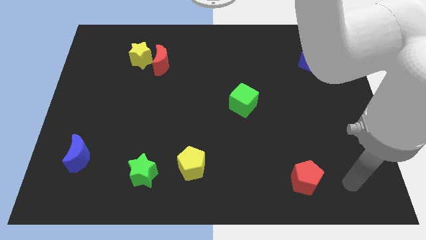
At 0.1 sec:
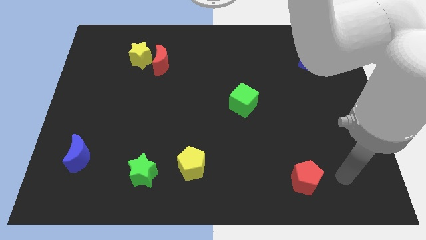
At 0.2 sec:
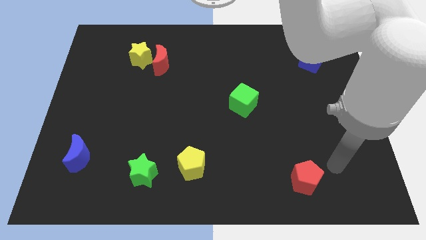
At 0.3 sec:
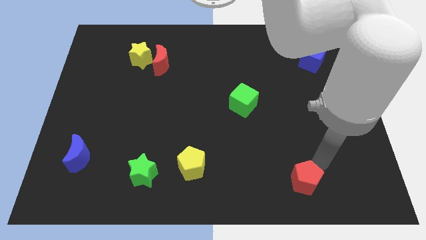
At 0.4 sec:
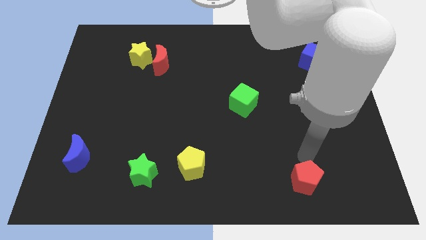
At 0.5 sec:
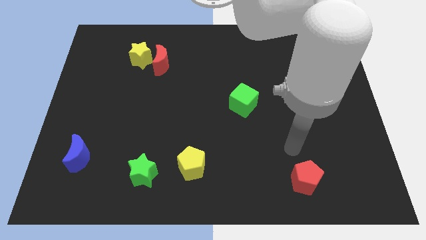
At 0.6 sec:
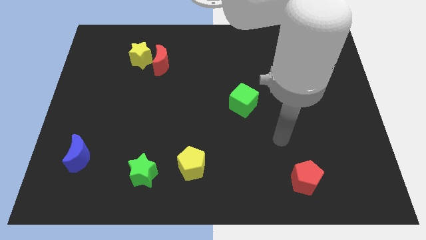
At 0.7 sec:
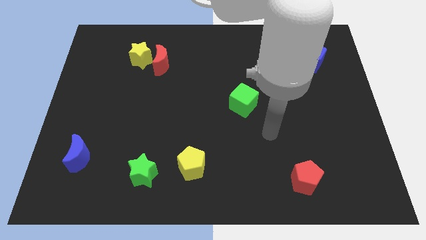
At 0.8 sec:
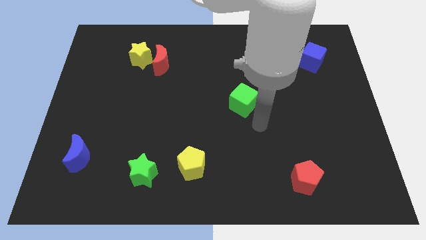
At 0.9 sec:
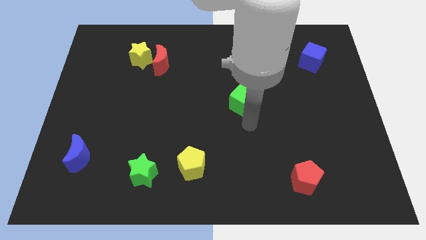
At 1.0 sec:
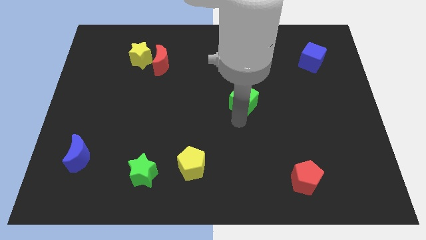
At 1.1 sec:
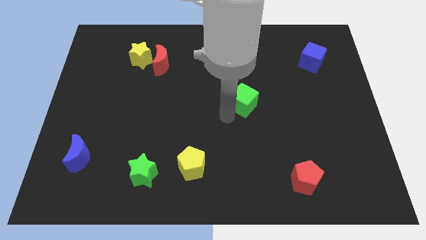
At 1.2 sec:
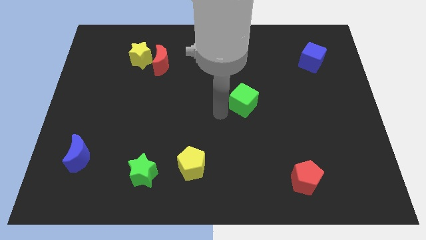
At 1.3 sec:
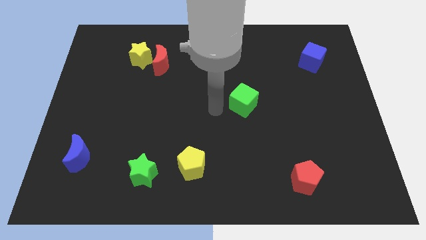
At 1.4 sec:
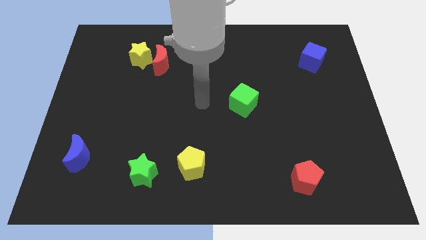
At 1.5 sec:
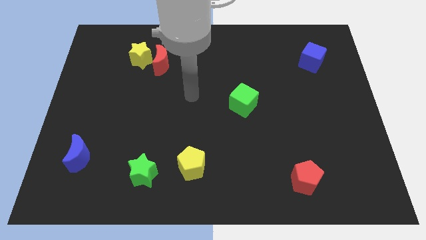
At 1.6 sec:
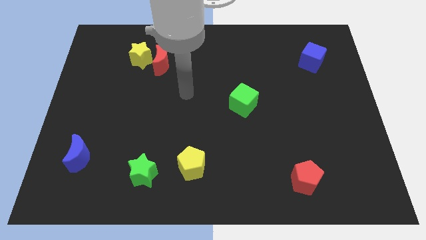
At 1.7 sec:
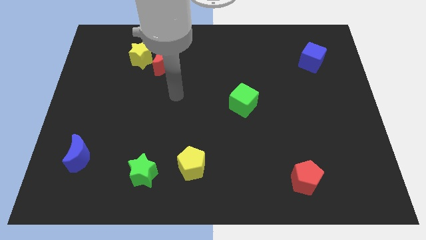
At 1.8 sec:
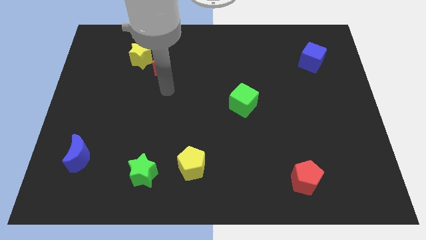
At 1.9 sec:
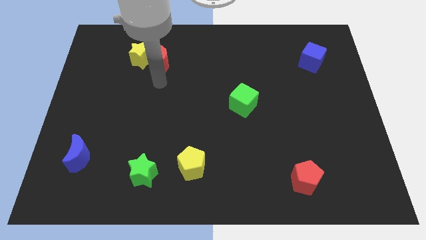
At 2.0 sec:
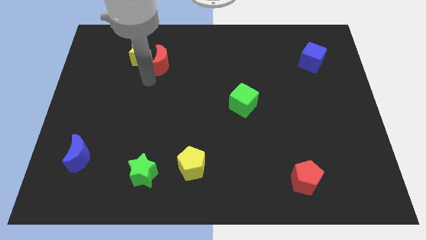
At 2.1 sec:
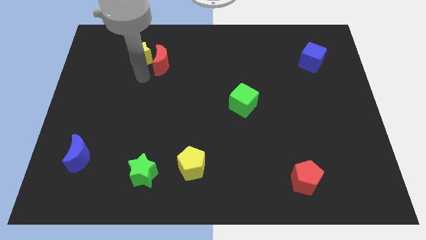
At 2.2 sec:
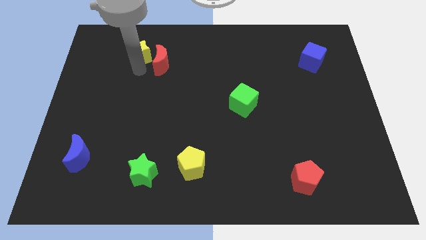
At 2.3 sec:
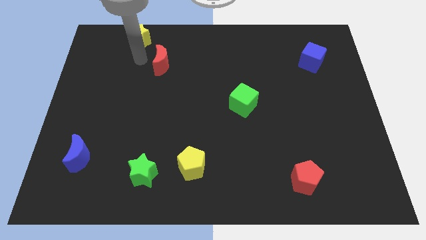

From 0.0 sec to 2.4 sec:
separate the red moon from the yellow star

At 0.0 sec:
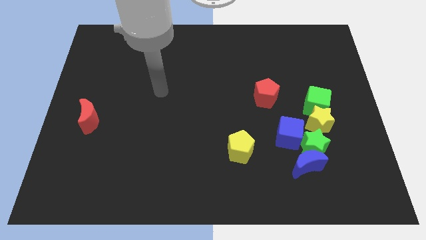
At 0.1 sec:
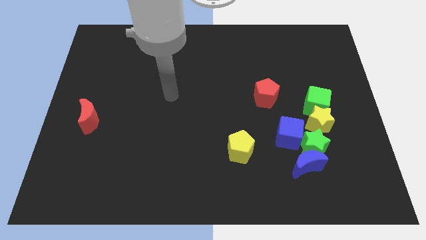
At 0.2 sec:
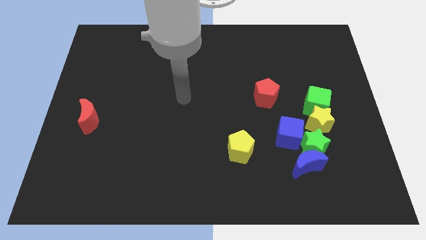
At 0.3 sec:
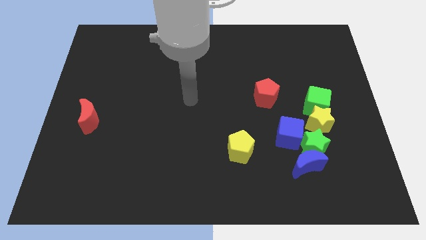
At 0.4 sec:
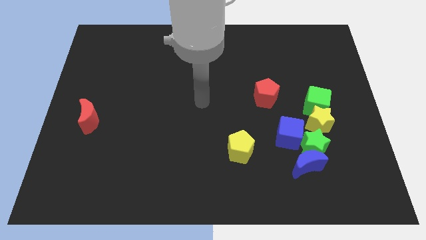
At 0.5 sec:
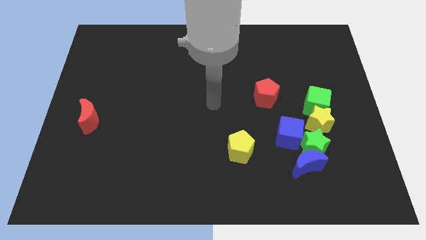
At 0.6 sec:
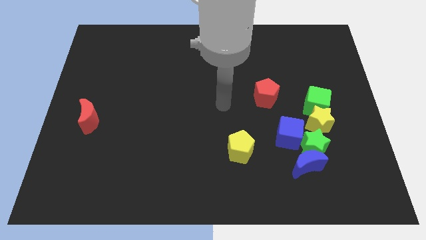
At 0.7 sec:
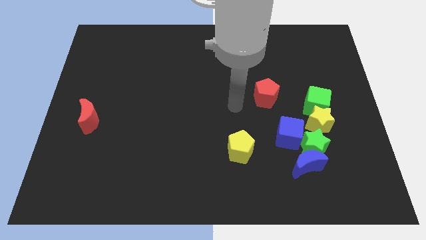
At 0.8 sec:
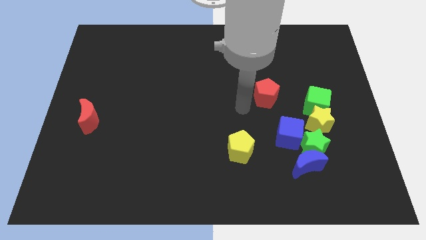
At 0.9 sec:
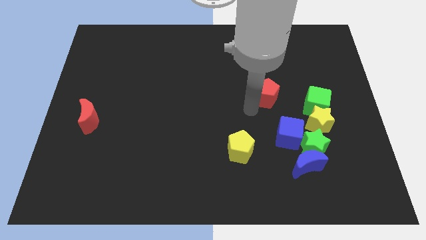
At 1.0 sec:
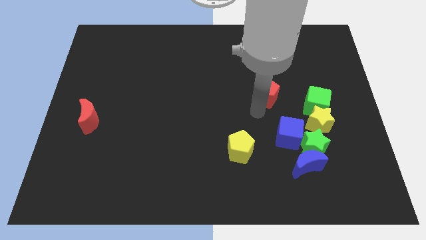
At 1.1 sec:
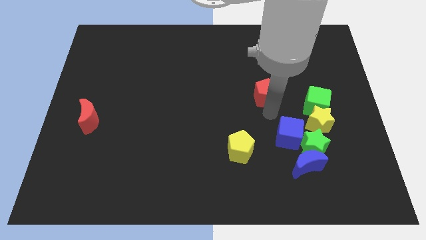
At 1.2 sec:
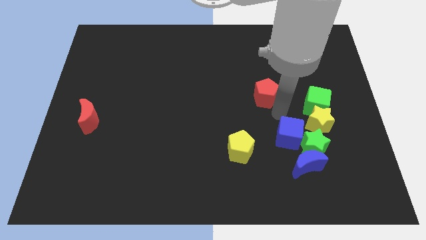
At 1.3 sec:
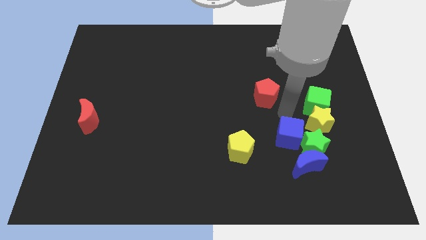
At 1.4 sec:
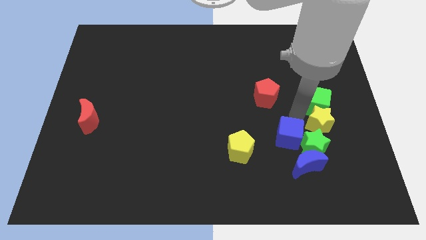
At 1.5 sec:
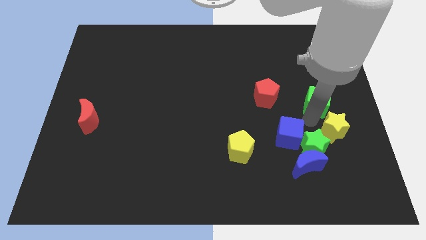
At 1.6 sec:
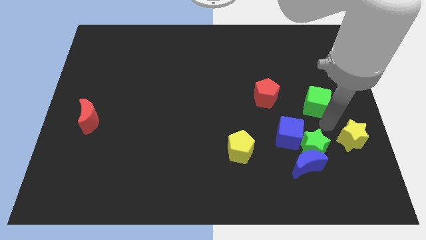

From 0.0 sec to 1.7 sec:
separate the green cube from the yellow star

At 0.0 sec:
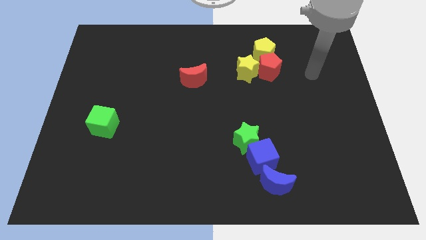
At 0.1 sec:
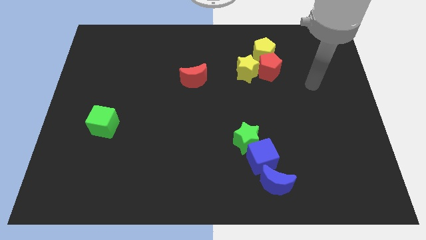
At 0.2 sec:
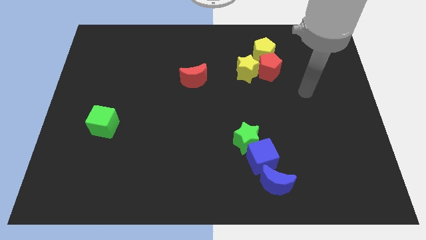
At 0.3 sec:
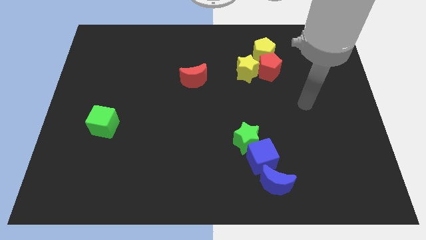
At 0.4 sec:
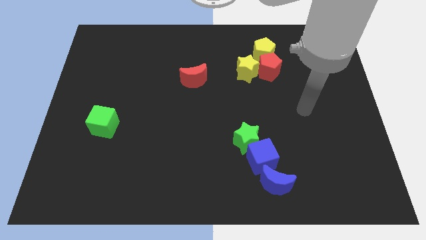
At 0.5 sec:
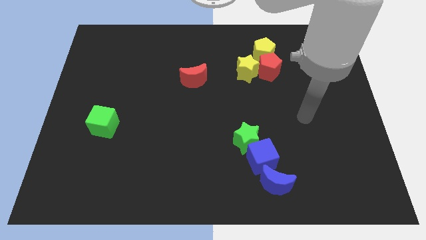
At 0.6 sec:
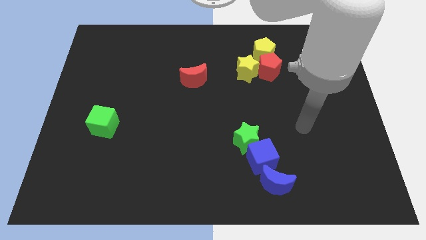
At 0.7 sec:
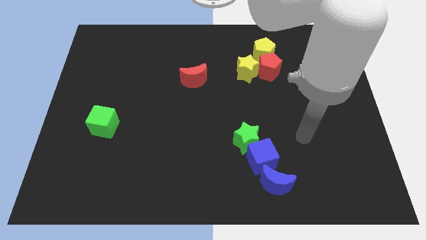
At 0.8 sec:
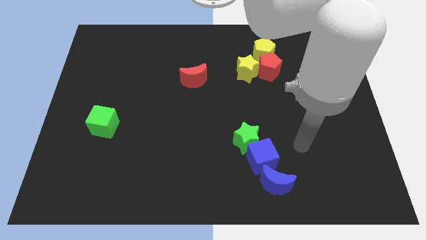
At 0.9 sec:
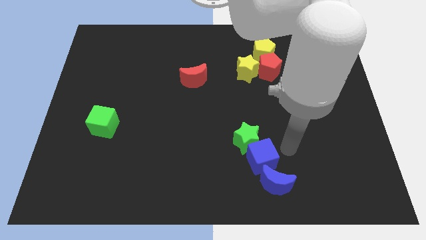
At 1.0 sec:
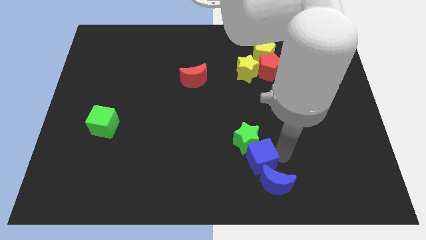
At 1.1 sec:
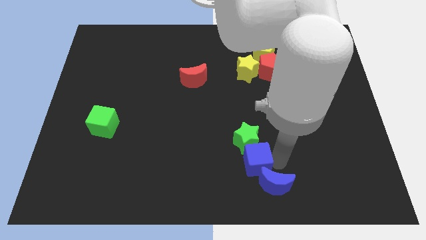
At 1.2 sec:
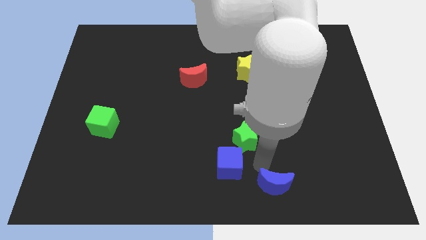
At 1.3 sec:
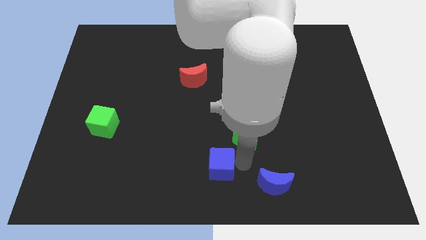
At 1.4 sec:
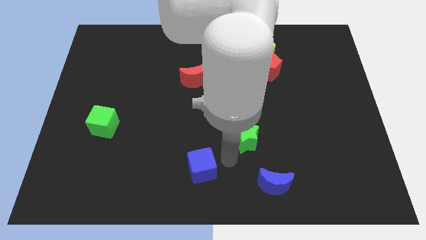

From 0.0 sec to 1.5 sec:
move the green star away from the blue cube

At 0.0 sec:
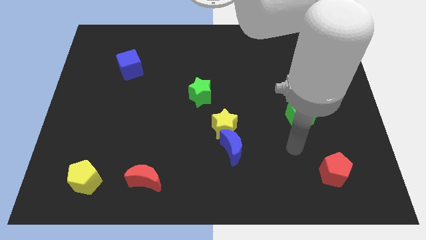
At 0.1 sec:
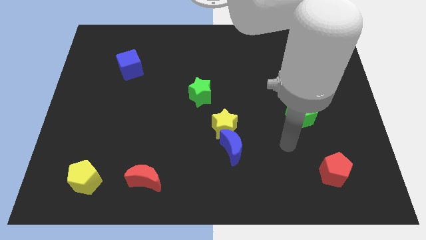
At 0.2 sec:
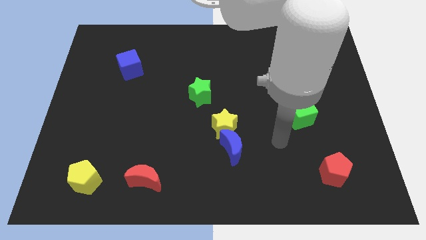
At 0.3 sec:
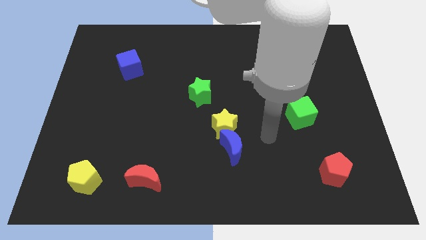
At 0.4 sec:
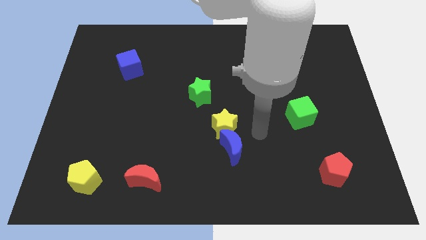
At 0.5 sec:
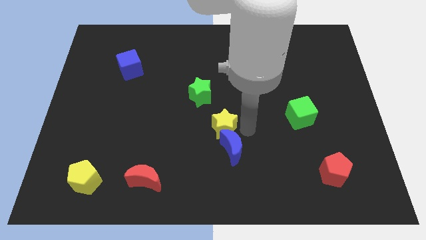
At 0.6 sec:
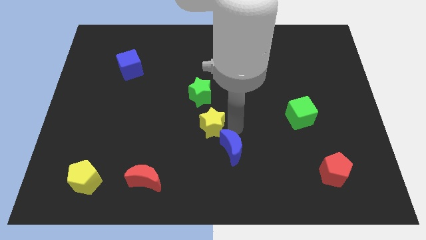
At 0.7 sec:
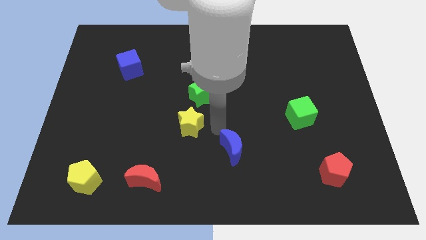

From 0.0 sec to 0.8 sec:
pull the blue moon apart from the yellow star

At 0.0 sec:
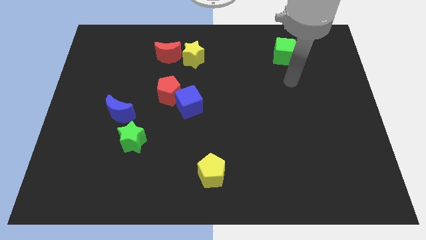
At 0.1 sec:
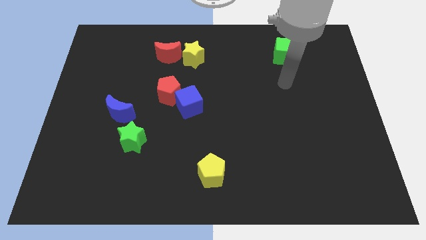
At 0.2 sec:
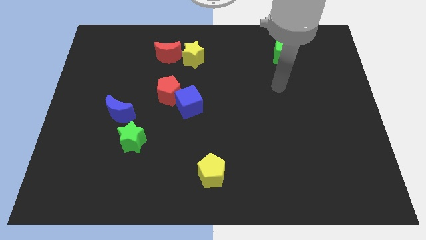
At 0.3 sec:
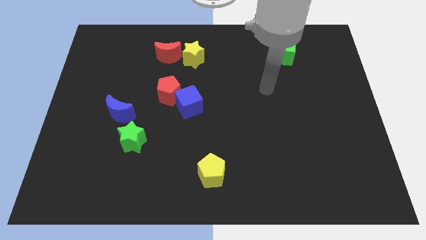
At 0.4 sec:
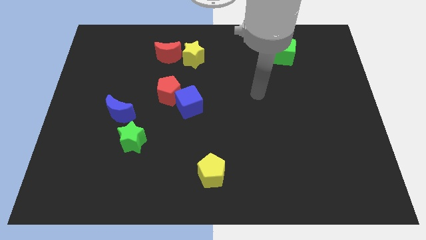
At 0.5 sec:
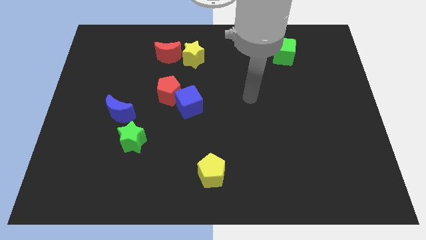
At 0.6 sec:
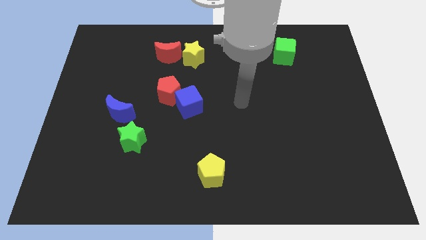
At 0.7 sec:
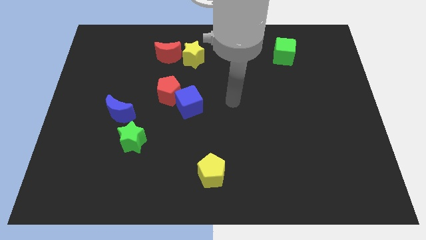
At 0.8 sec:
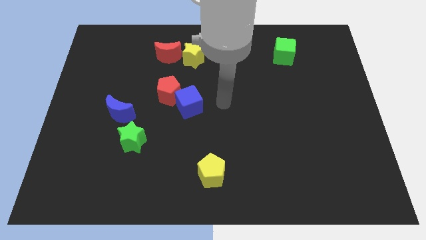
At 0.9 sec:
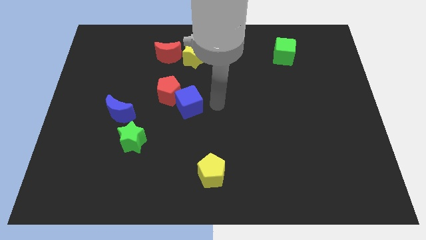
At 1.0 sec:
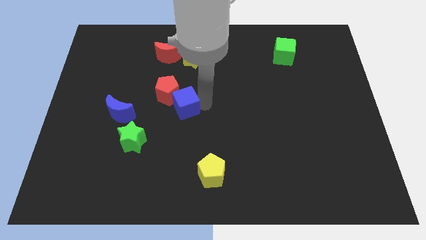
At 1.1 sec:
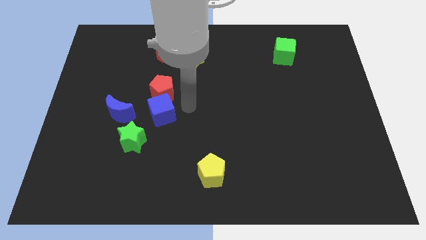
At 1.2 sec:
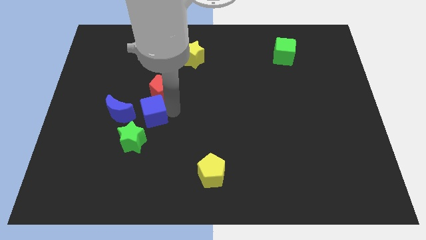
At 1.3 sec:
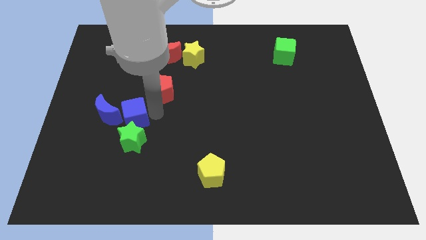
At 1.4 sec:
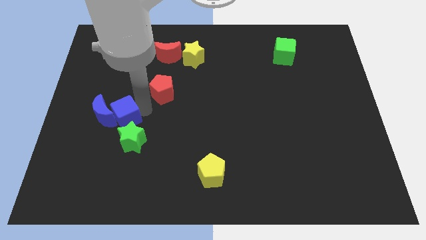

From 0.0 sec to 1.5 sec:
separate the red pentagon from the blue cube

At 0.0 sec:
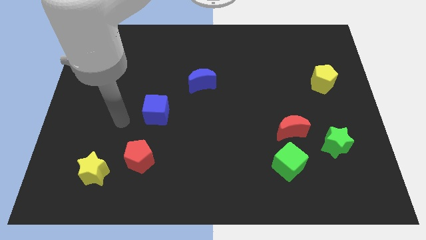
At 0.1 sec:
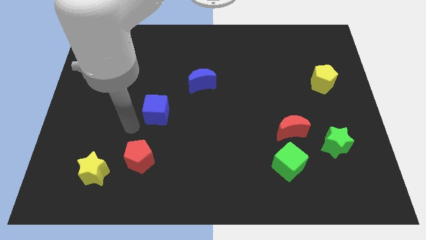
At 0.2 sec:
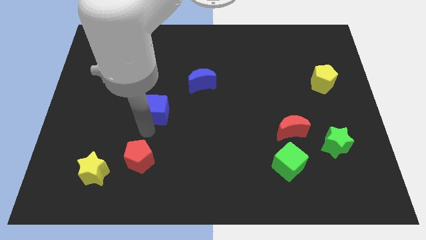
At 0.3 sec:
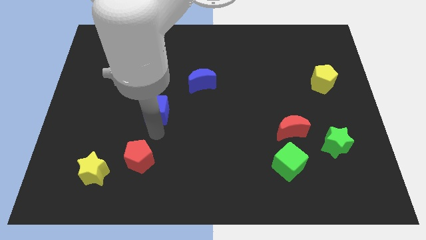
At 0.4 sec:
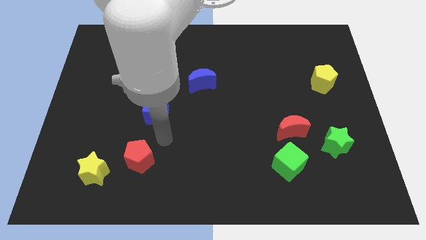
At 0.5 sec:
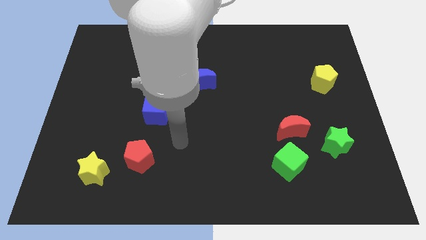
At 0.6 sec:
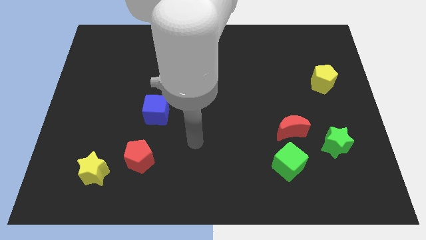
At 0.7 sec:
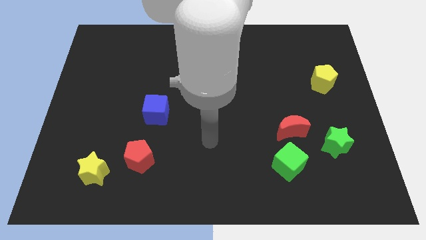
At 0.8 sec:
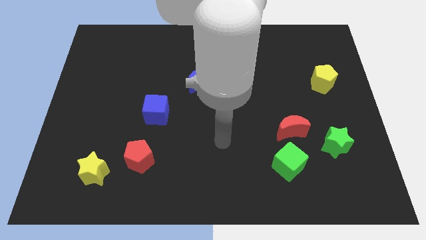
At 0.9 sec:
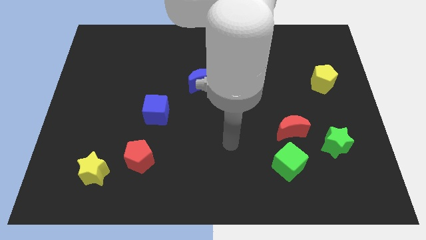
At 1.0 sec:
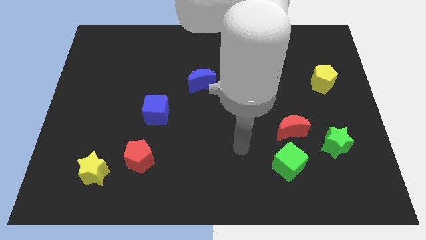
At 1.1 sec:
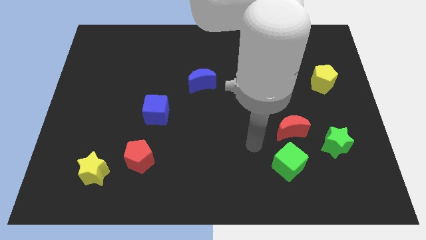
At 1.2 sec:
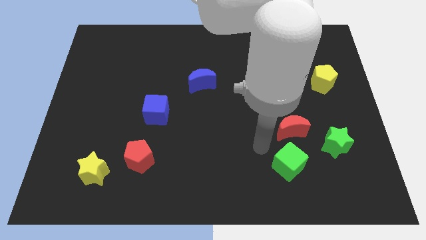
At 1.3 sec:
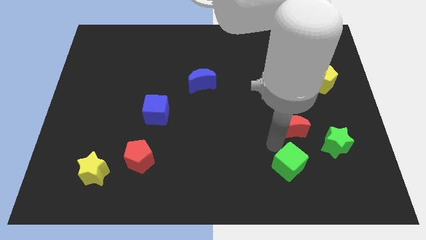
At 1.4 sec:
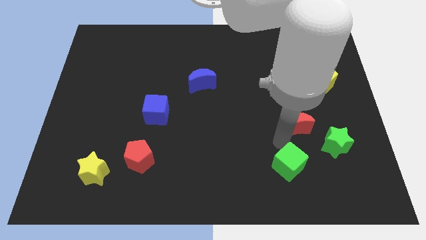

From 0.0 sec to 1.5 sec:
separate the green cube from the red moon
